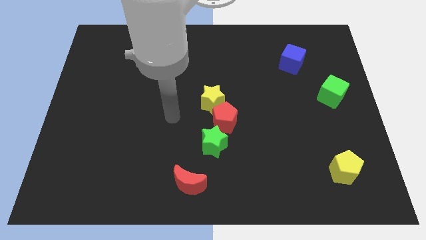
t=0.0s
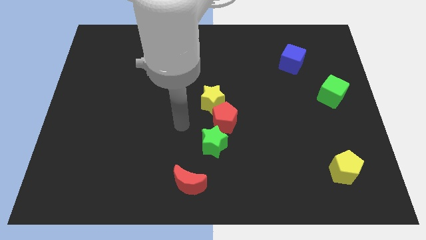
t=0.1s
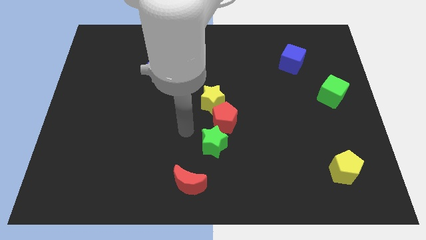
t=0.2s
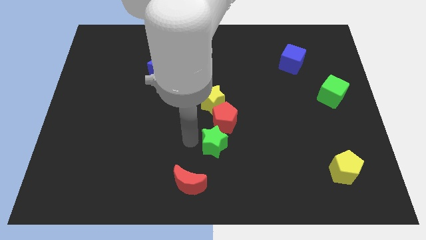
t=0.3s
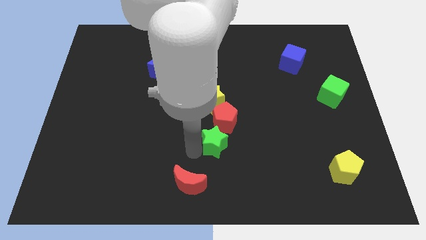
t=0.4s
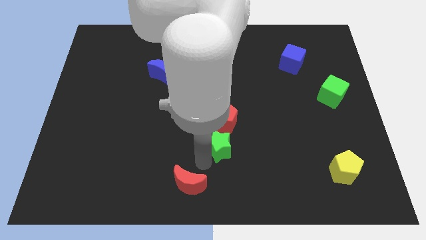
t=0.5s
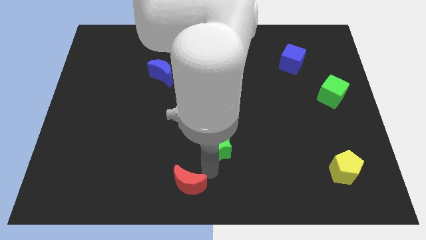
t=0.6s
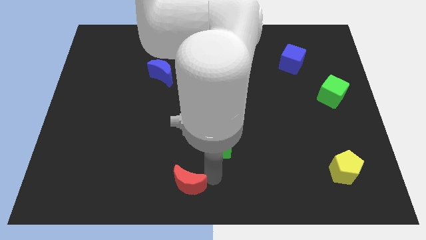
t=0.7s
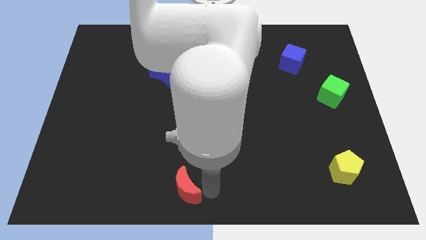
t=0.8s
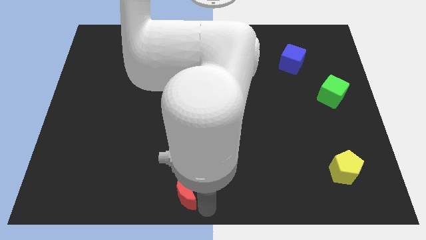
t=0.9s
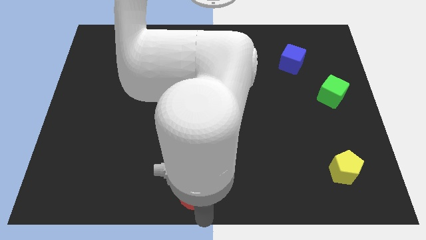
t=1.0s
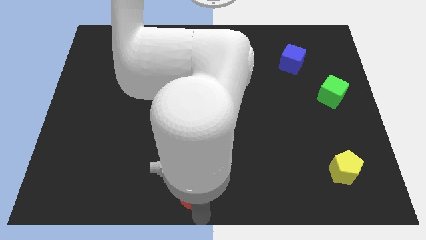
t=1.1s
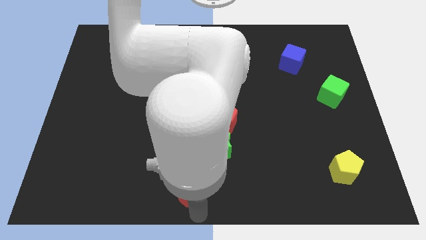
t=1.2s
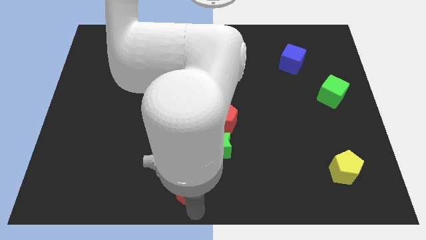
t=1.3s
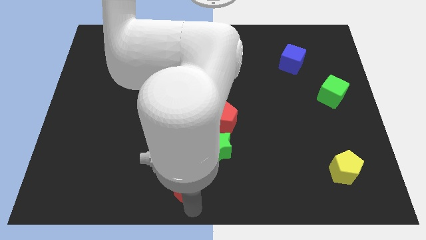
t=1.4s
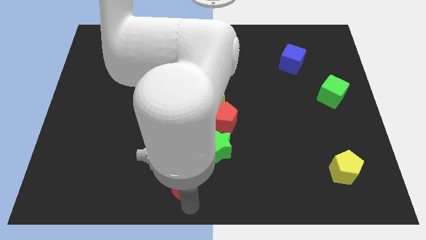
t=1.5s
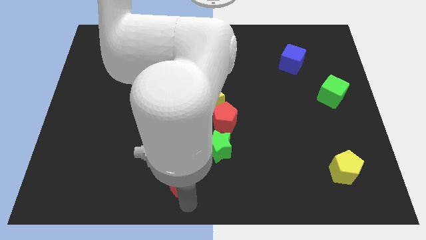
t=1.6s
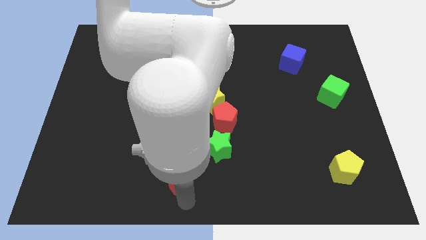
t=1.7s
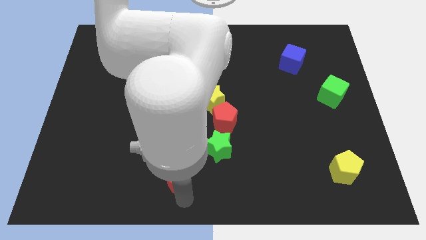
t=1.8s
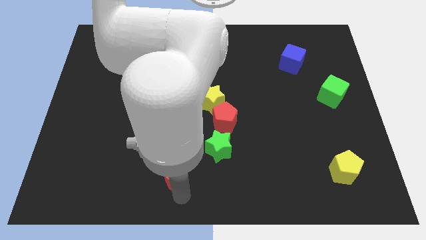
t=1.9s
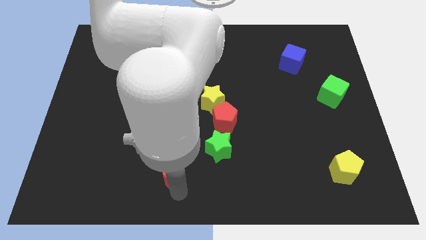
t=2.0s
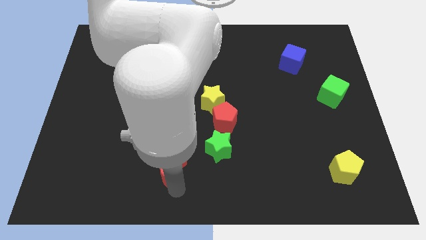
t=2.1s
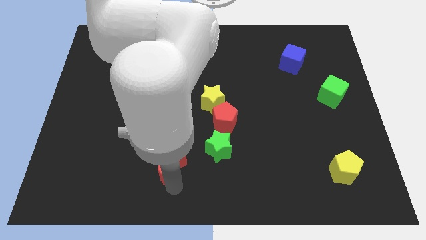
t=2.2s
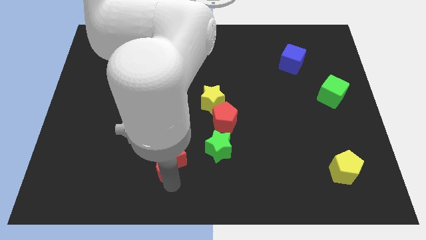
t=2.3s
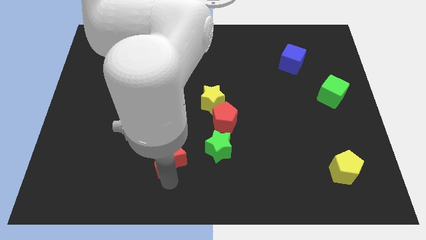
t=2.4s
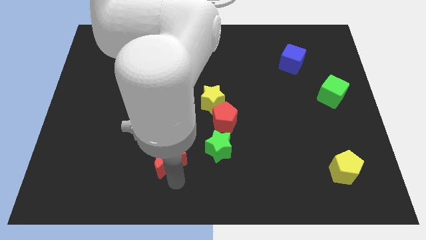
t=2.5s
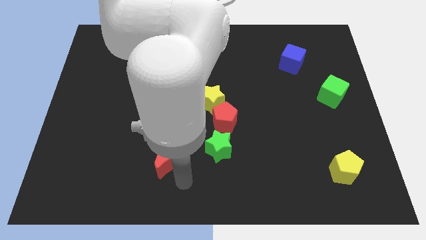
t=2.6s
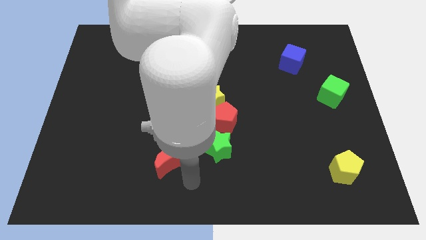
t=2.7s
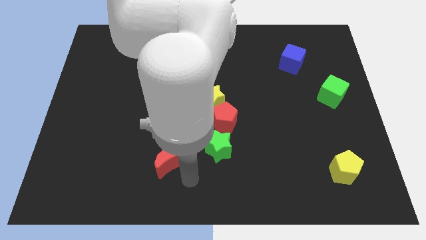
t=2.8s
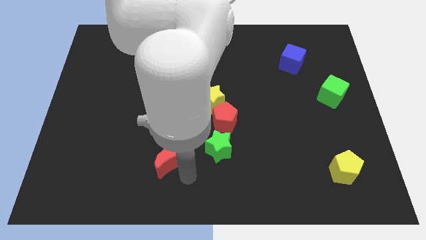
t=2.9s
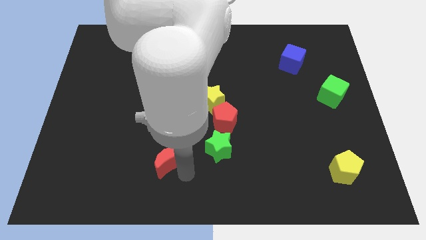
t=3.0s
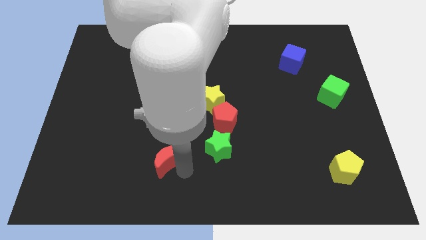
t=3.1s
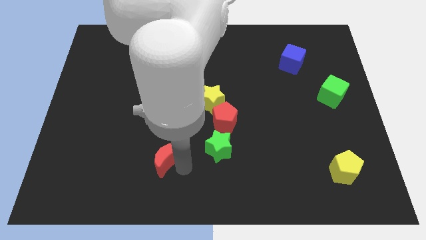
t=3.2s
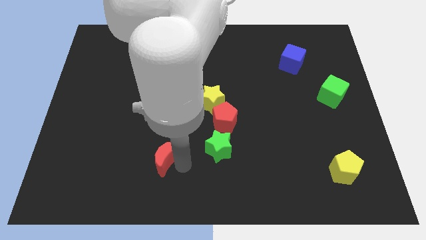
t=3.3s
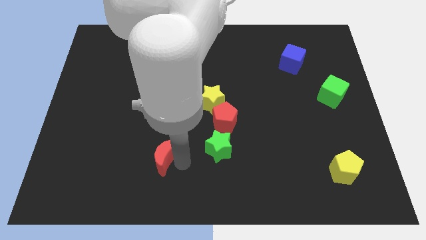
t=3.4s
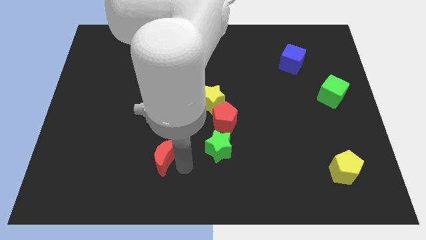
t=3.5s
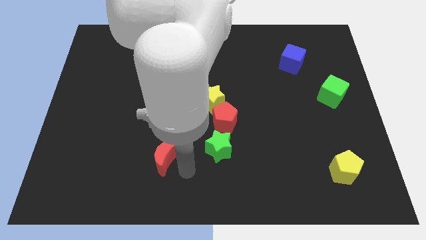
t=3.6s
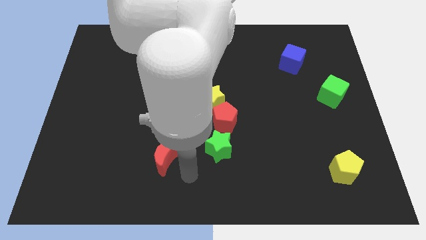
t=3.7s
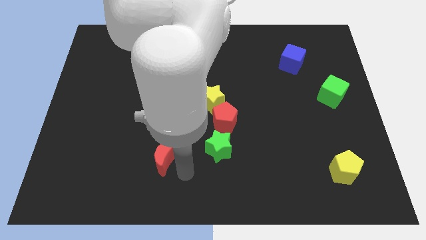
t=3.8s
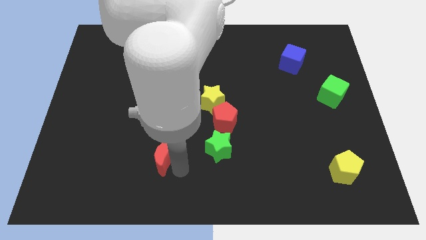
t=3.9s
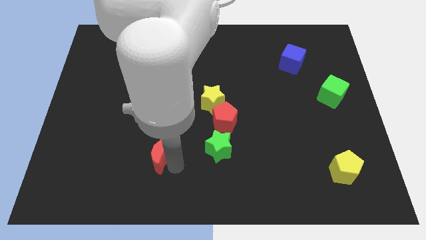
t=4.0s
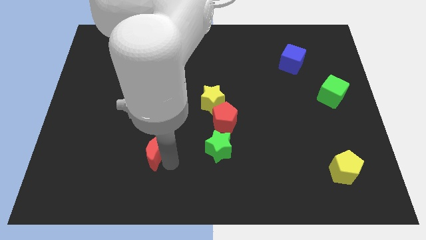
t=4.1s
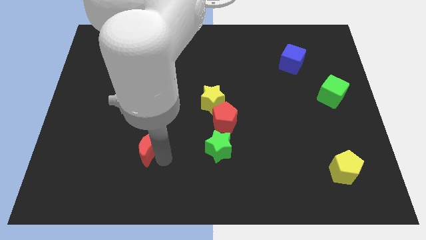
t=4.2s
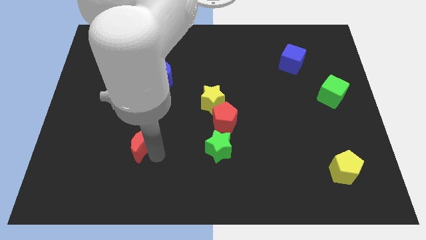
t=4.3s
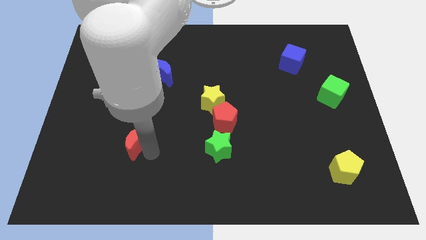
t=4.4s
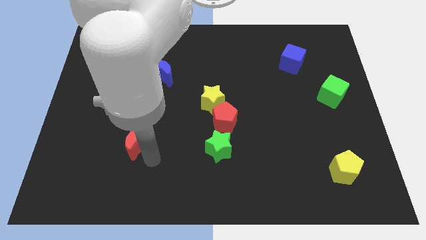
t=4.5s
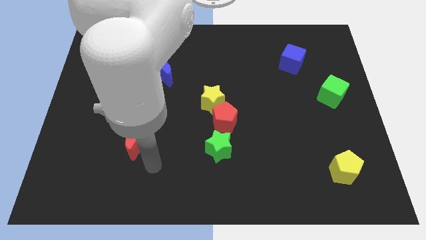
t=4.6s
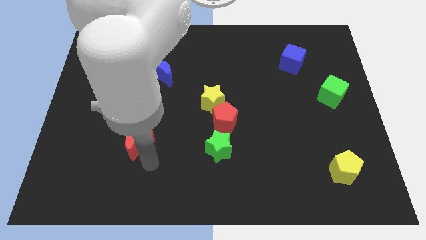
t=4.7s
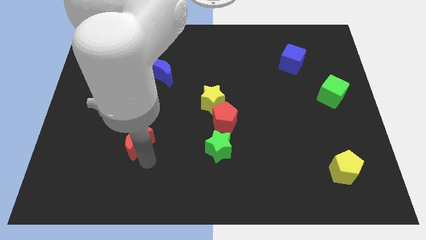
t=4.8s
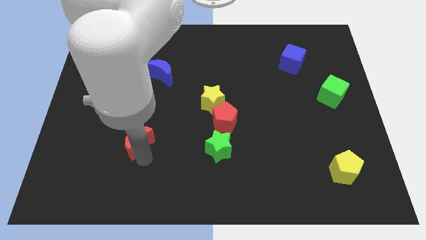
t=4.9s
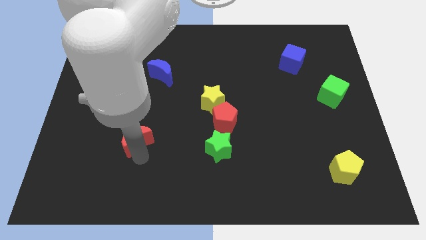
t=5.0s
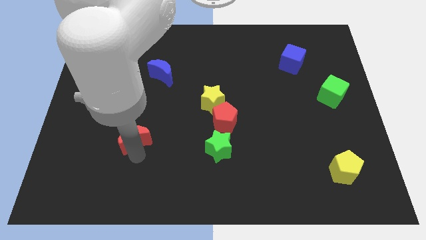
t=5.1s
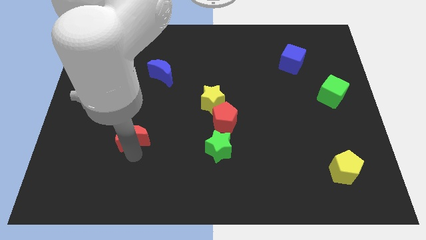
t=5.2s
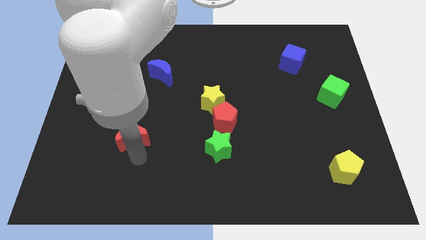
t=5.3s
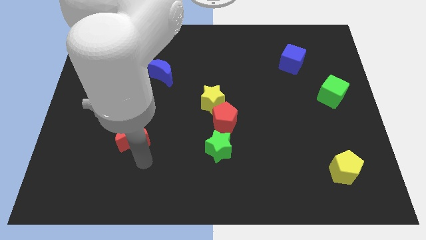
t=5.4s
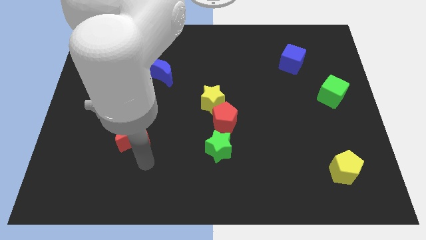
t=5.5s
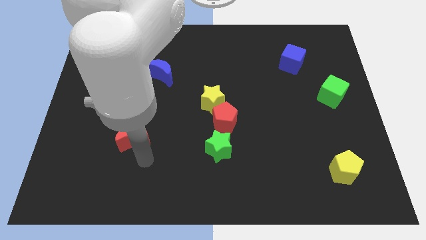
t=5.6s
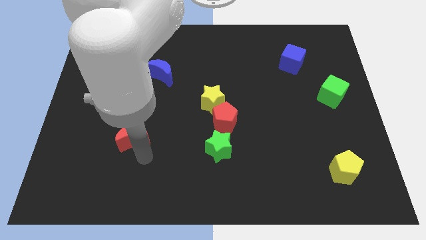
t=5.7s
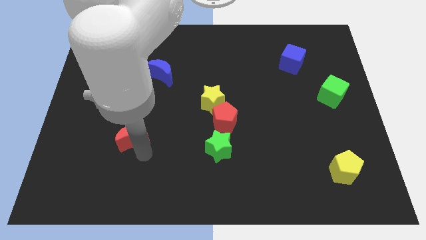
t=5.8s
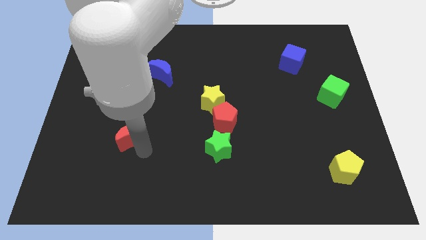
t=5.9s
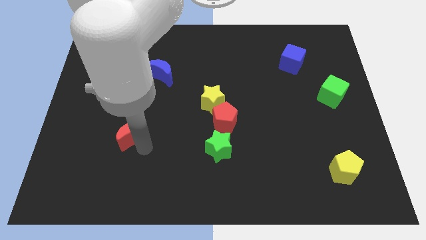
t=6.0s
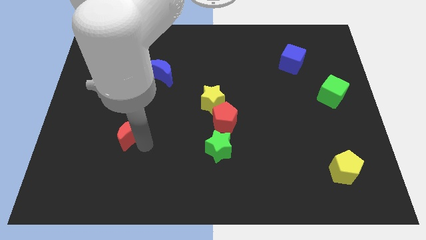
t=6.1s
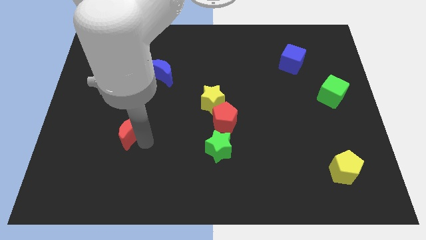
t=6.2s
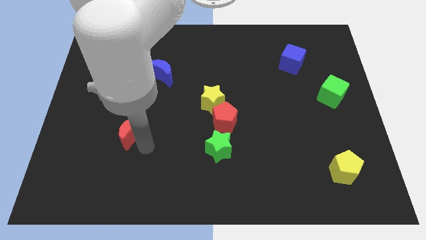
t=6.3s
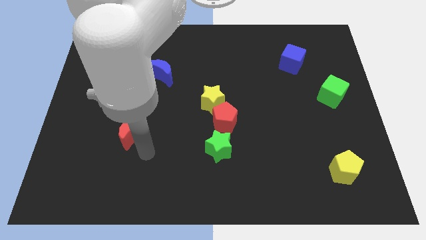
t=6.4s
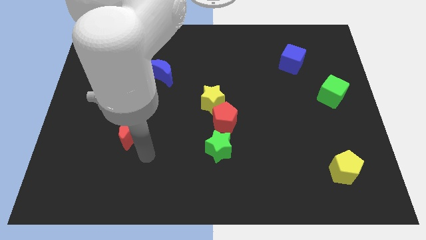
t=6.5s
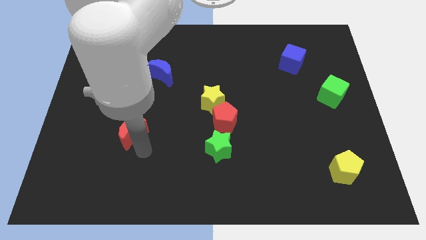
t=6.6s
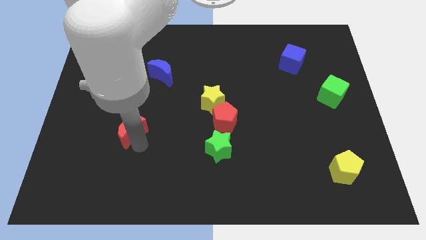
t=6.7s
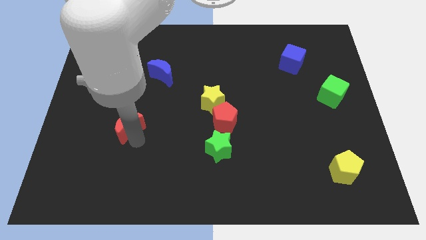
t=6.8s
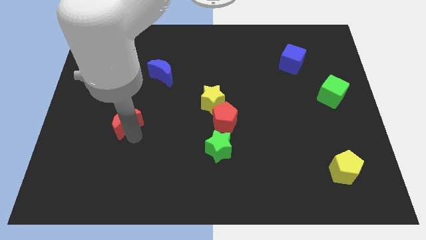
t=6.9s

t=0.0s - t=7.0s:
push the red moon upwards and left diagonally

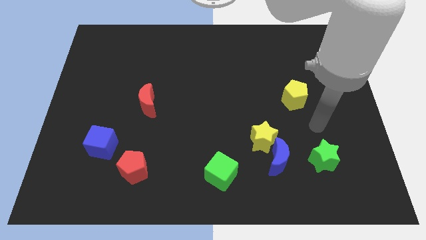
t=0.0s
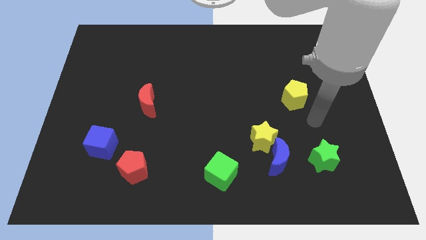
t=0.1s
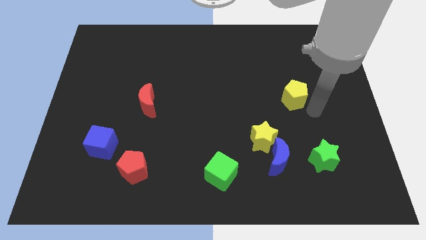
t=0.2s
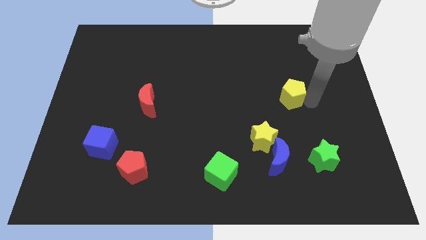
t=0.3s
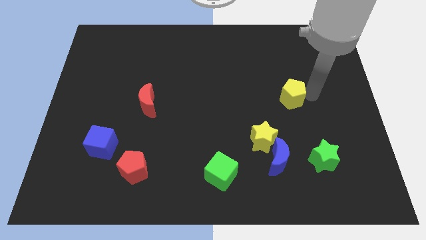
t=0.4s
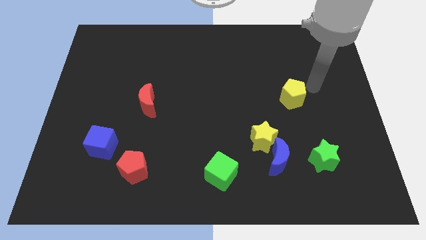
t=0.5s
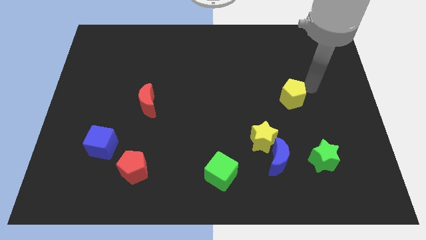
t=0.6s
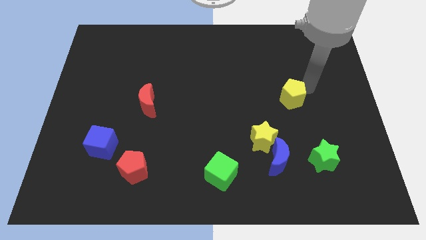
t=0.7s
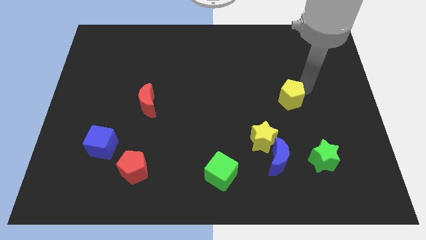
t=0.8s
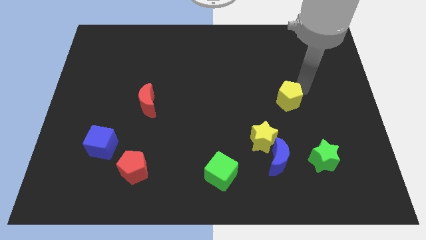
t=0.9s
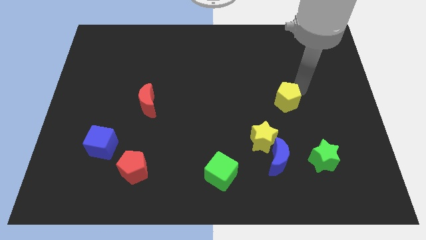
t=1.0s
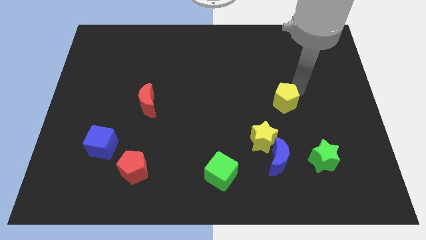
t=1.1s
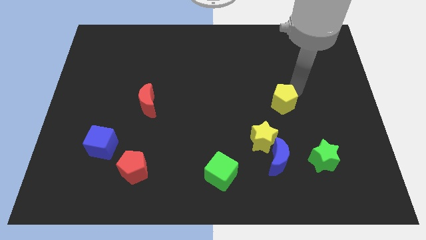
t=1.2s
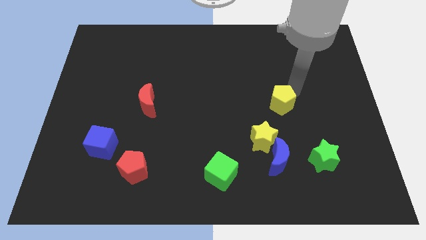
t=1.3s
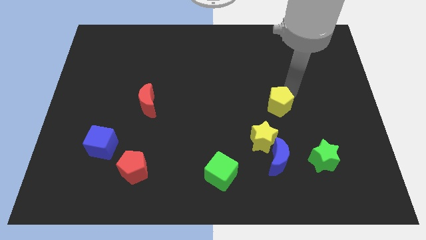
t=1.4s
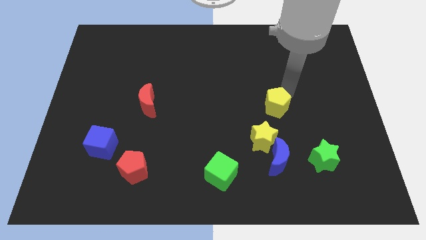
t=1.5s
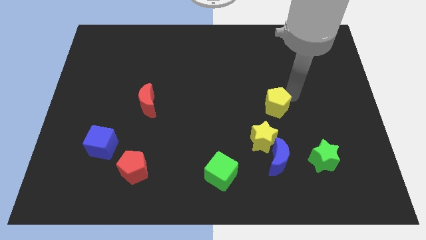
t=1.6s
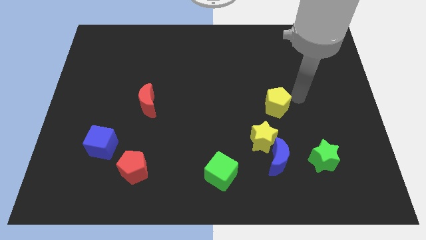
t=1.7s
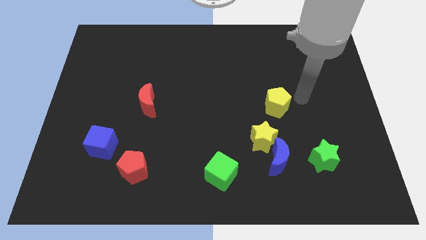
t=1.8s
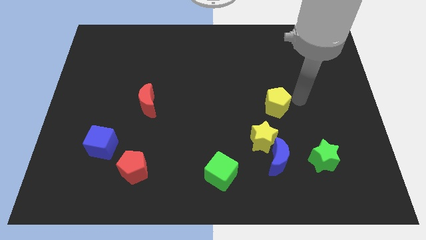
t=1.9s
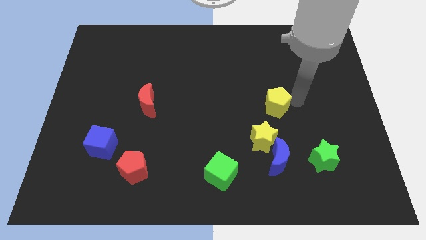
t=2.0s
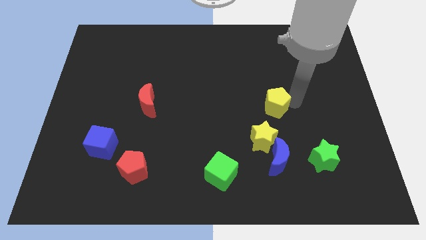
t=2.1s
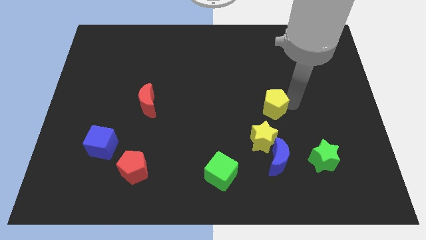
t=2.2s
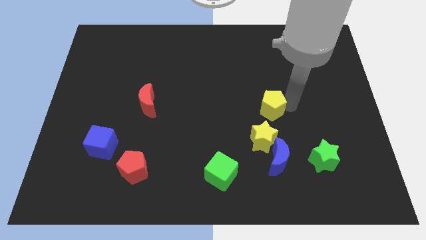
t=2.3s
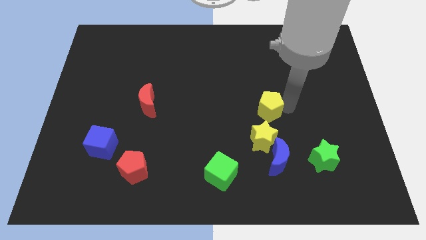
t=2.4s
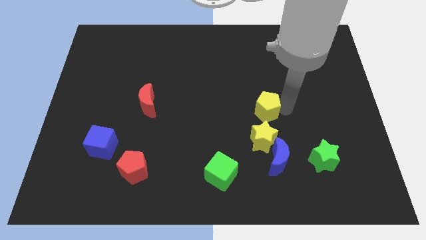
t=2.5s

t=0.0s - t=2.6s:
move the yellow pentagon a little down and to the left diagonally
